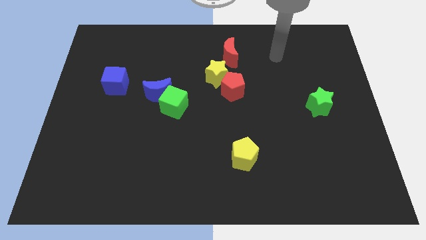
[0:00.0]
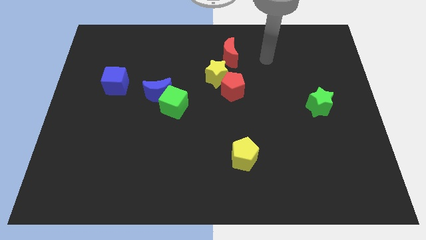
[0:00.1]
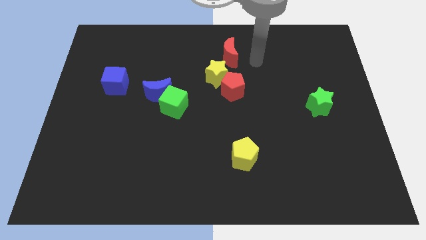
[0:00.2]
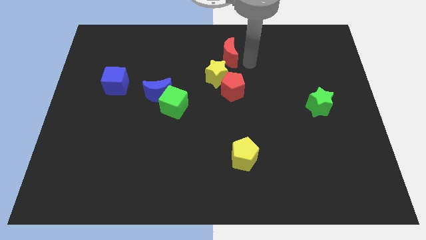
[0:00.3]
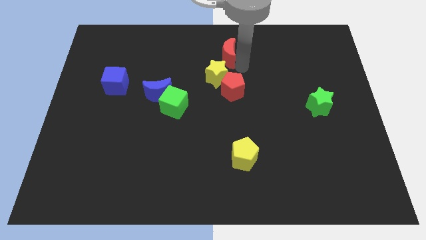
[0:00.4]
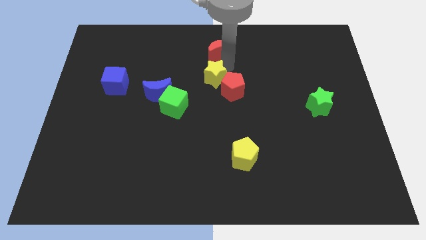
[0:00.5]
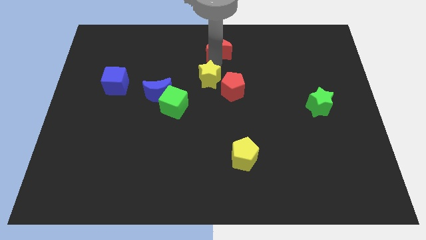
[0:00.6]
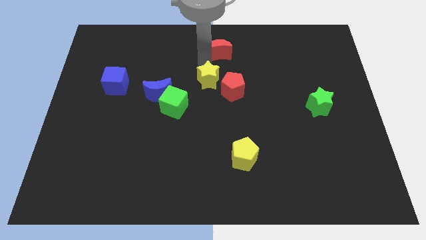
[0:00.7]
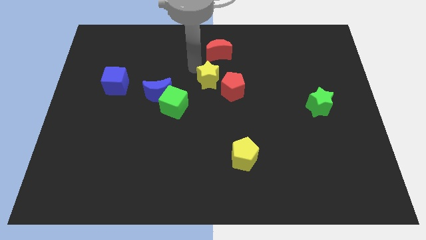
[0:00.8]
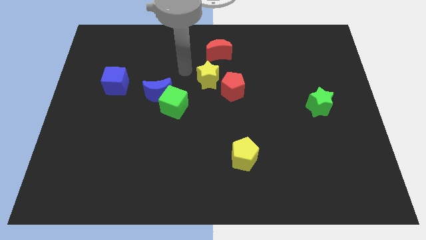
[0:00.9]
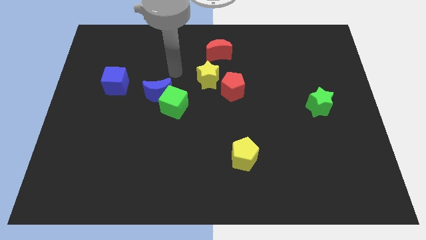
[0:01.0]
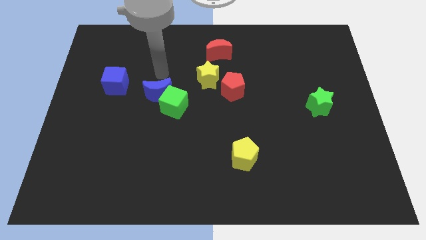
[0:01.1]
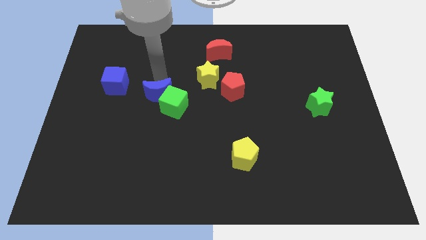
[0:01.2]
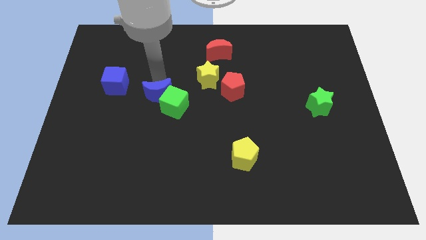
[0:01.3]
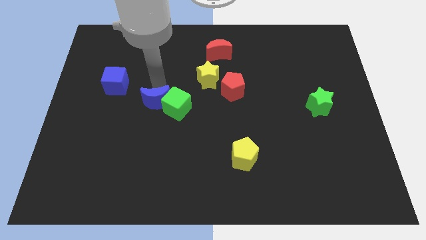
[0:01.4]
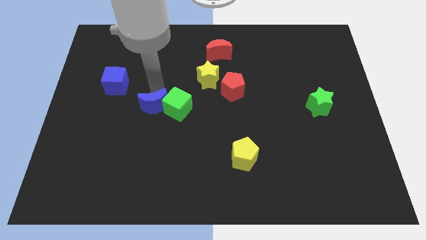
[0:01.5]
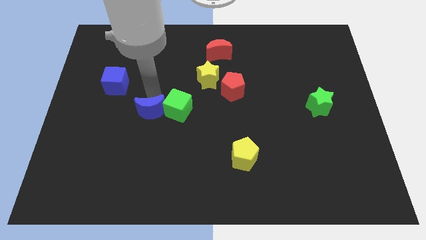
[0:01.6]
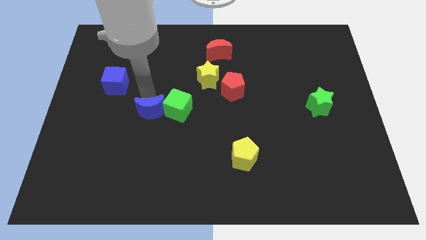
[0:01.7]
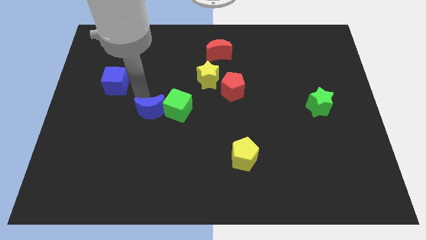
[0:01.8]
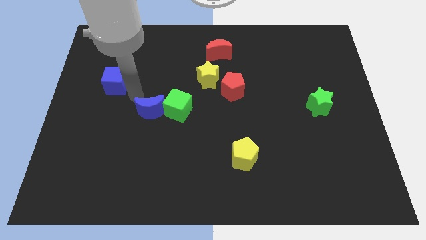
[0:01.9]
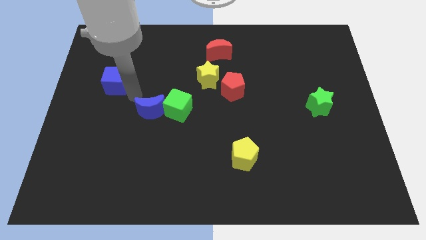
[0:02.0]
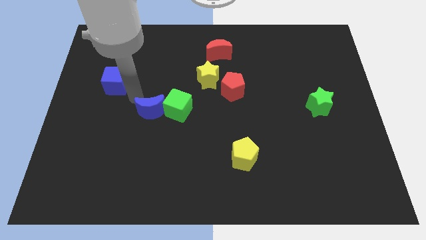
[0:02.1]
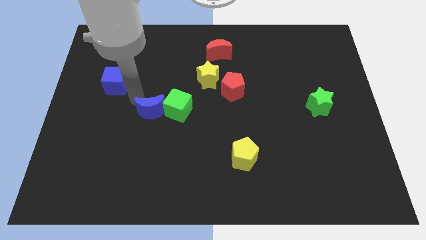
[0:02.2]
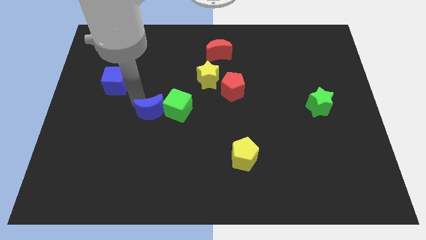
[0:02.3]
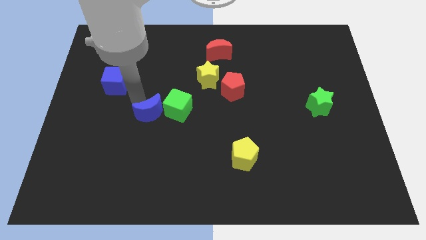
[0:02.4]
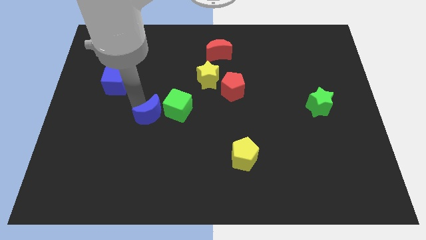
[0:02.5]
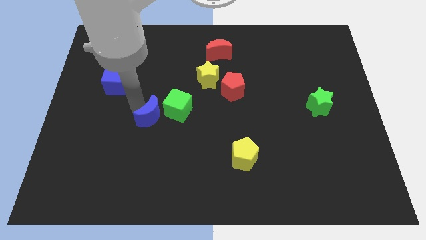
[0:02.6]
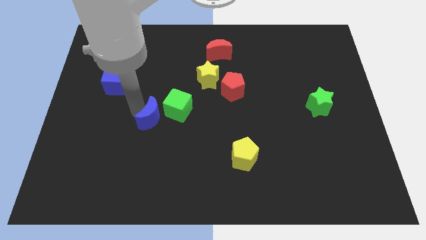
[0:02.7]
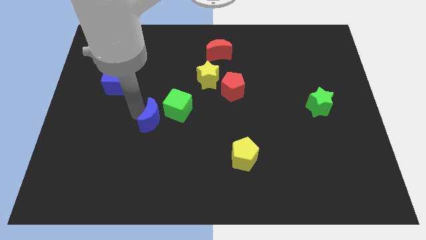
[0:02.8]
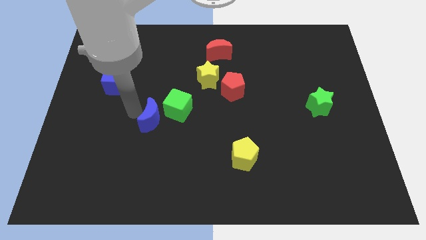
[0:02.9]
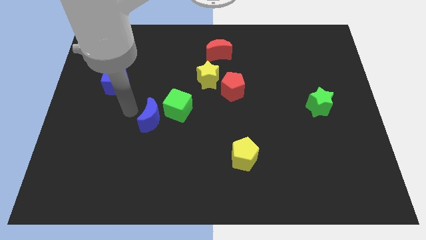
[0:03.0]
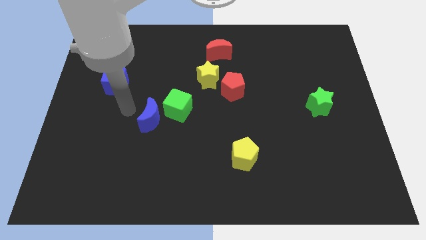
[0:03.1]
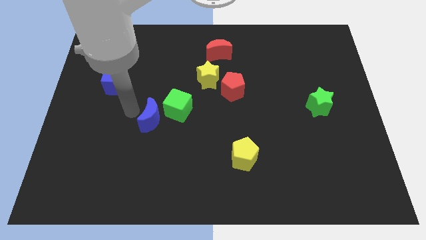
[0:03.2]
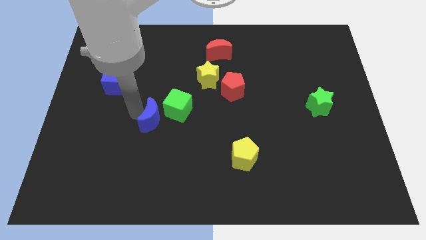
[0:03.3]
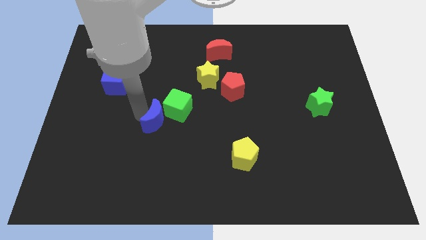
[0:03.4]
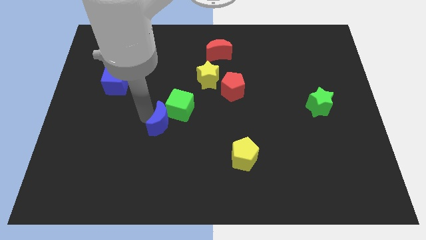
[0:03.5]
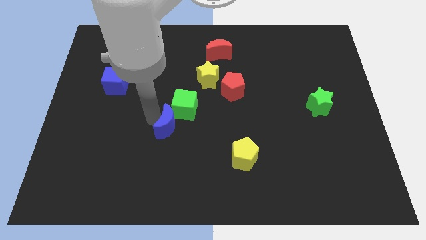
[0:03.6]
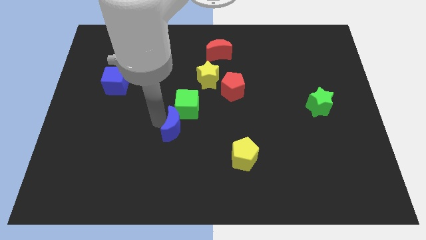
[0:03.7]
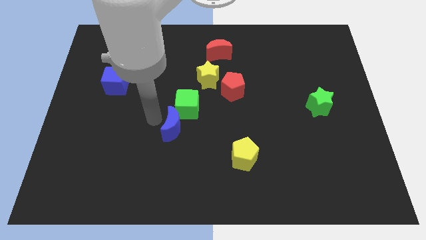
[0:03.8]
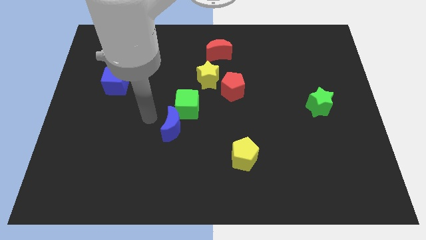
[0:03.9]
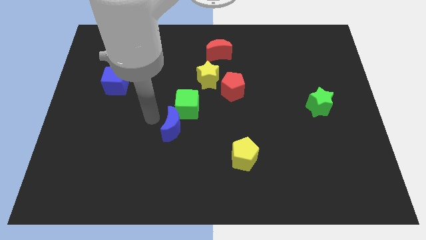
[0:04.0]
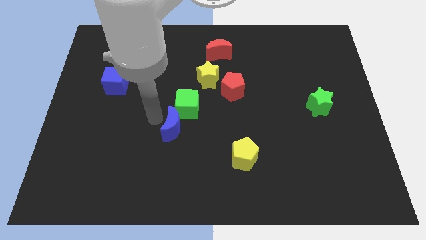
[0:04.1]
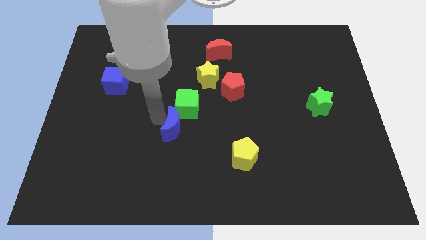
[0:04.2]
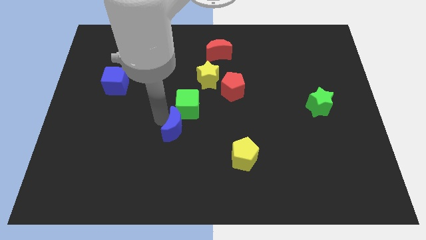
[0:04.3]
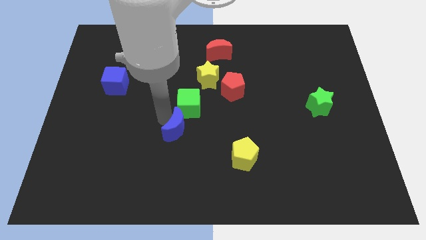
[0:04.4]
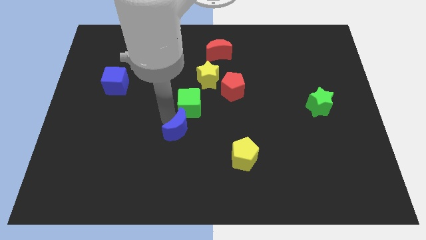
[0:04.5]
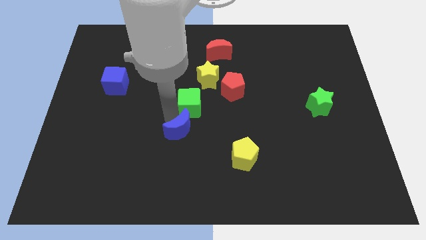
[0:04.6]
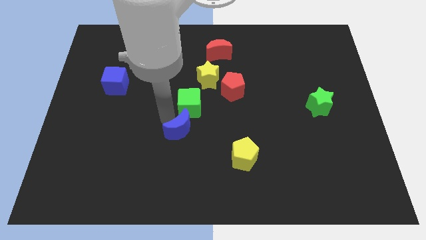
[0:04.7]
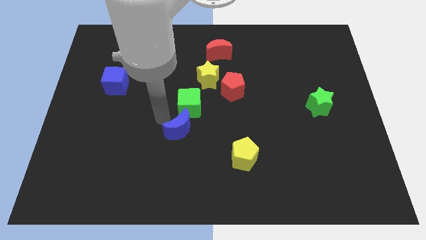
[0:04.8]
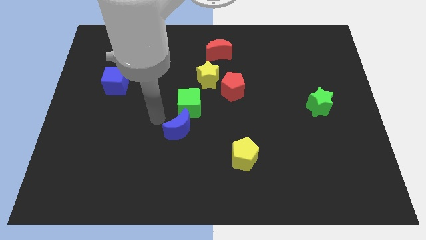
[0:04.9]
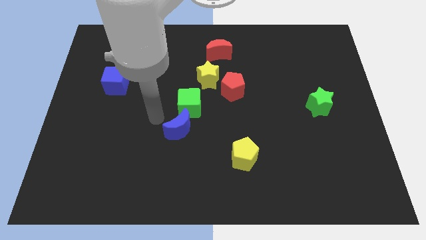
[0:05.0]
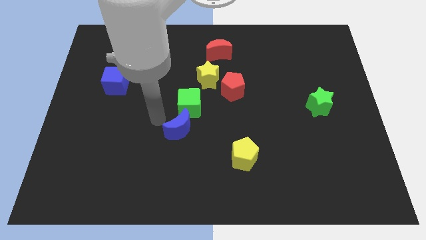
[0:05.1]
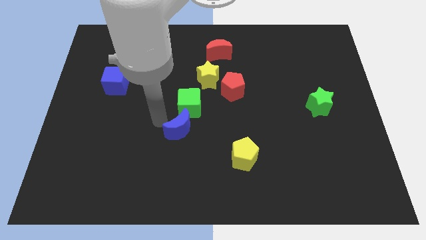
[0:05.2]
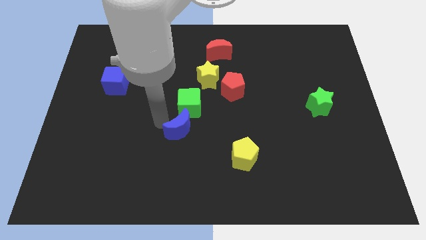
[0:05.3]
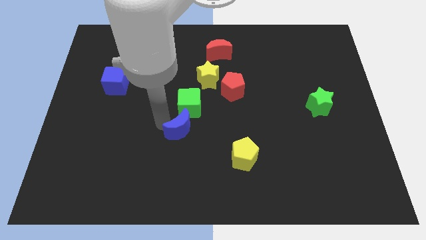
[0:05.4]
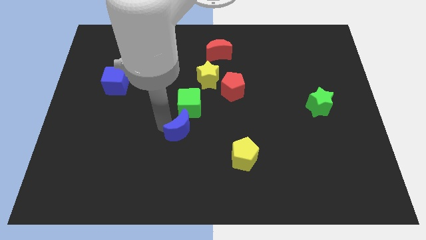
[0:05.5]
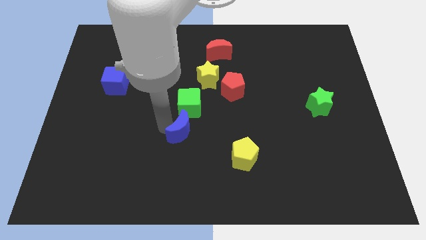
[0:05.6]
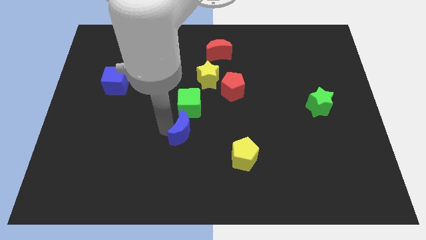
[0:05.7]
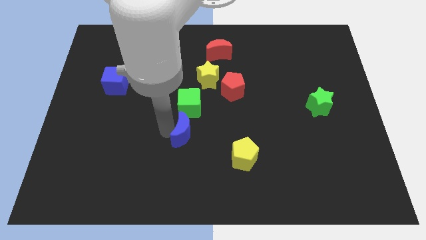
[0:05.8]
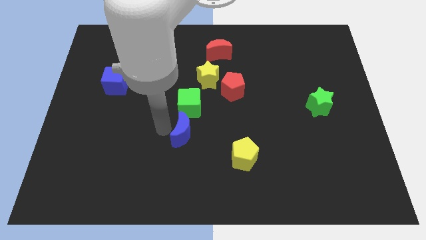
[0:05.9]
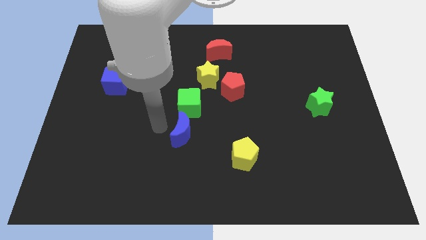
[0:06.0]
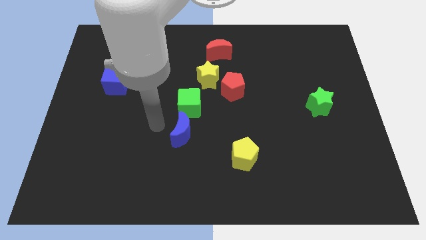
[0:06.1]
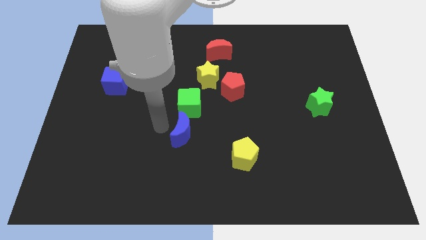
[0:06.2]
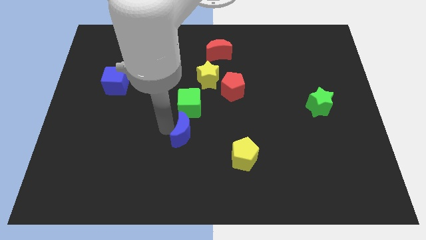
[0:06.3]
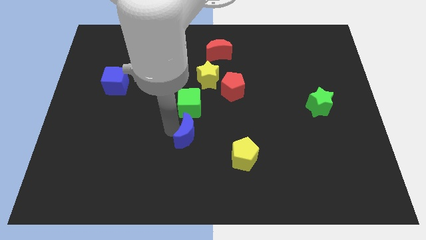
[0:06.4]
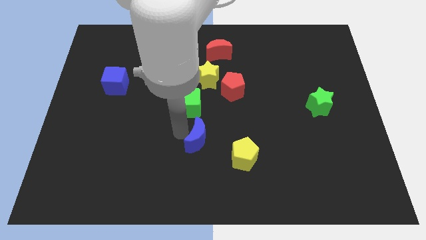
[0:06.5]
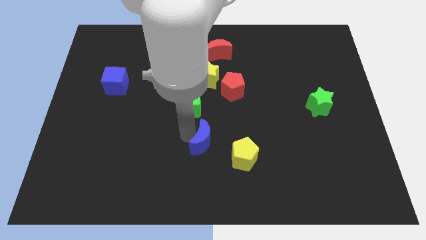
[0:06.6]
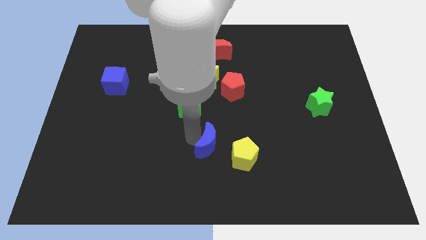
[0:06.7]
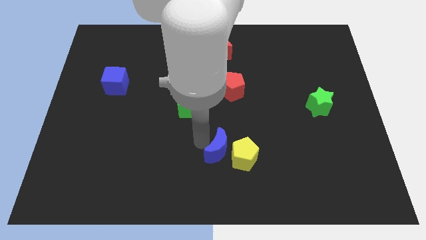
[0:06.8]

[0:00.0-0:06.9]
push the blue moon next to the yellow pentagon
